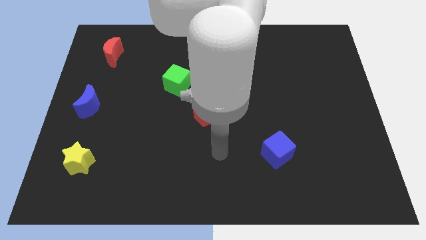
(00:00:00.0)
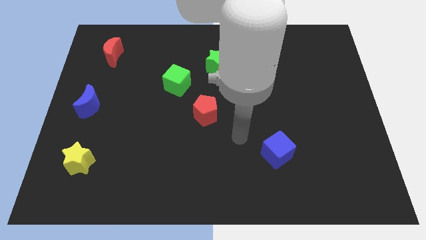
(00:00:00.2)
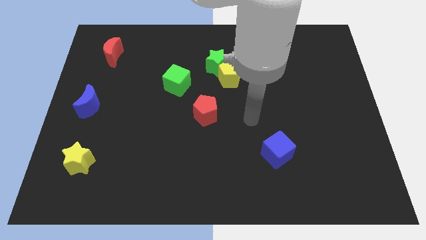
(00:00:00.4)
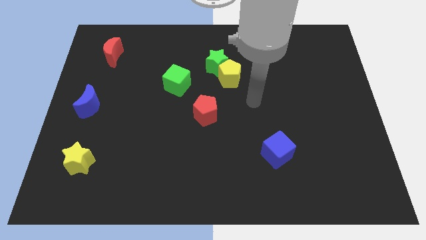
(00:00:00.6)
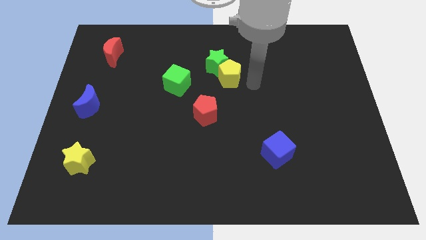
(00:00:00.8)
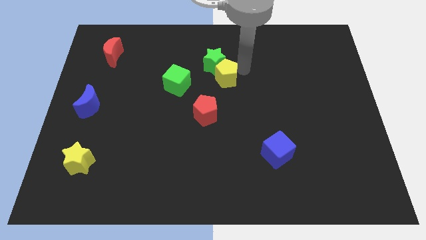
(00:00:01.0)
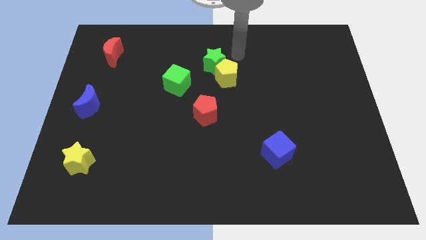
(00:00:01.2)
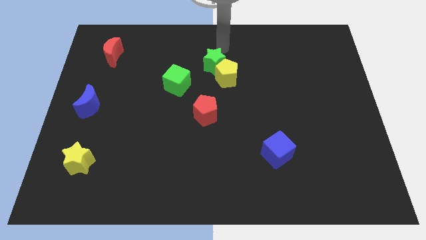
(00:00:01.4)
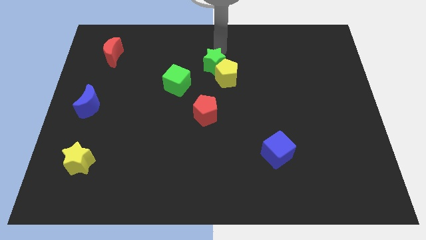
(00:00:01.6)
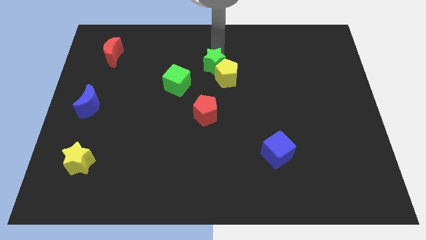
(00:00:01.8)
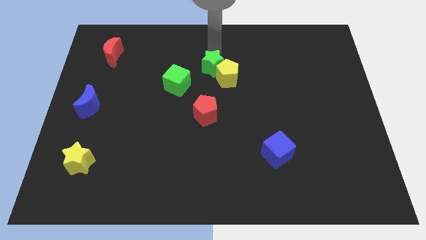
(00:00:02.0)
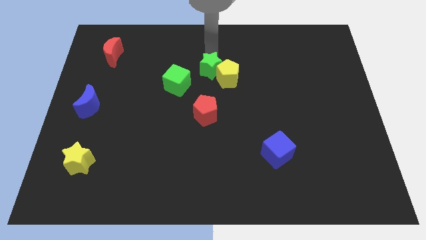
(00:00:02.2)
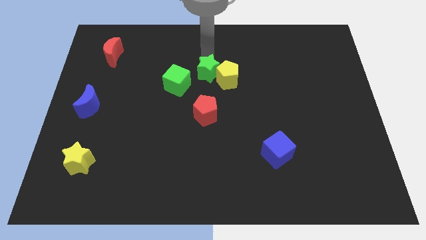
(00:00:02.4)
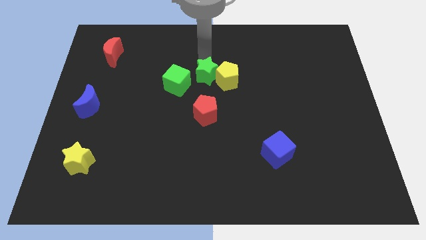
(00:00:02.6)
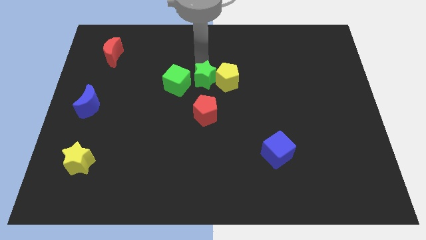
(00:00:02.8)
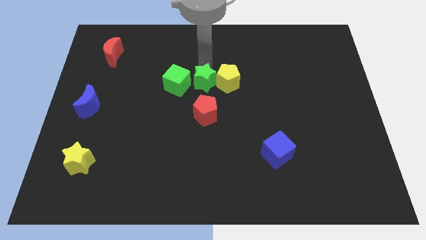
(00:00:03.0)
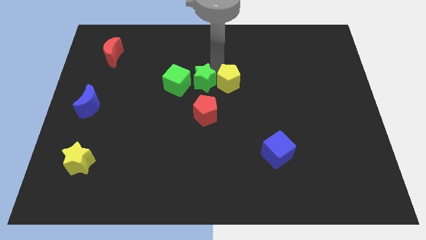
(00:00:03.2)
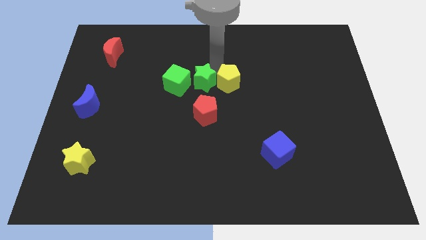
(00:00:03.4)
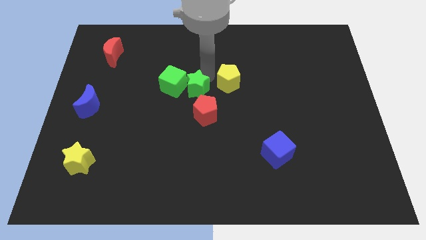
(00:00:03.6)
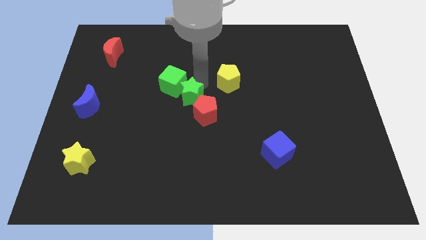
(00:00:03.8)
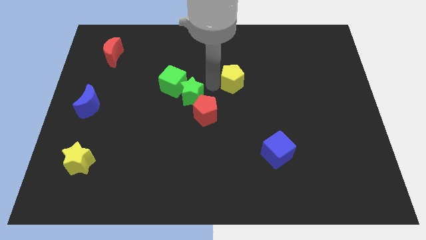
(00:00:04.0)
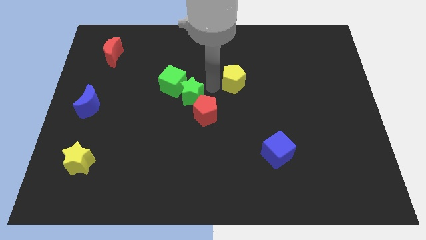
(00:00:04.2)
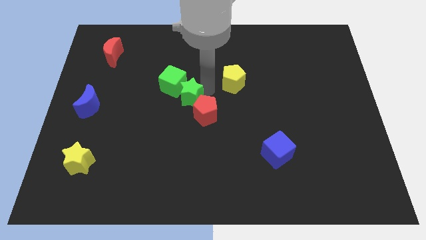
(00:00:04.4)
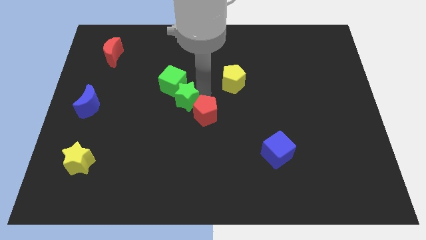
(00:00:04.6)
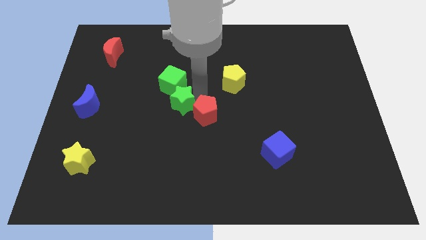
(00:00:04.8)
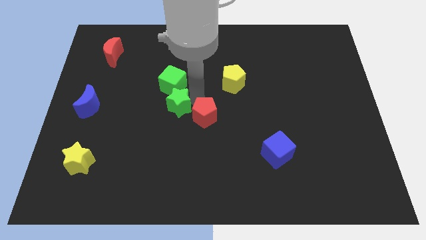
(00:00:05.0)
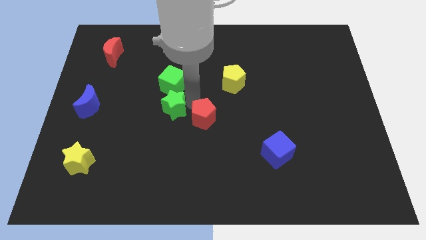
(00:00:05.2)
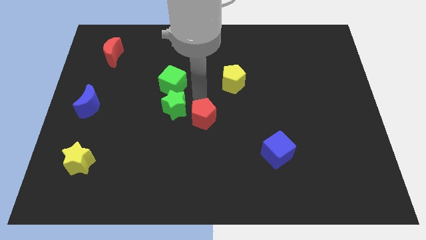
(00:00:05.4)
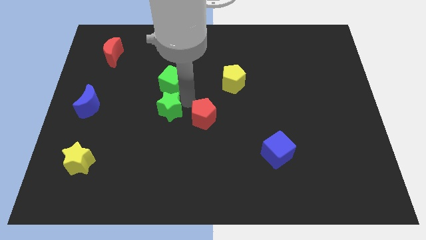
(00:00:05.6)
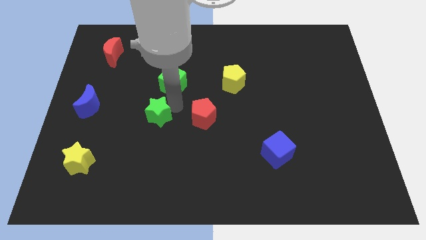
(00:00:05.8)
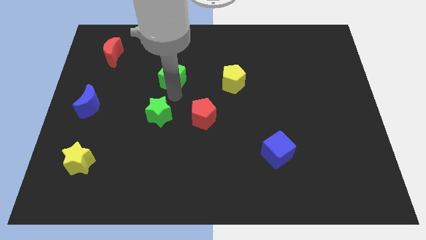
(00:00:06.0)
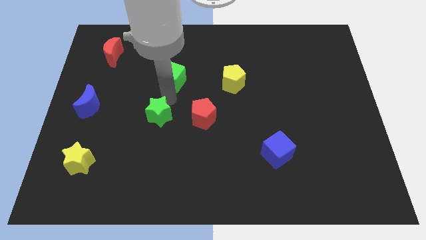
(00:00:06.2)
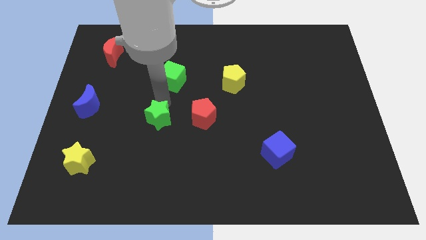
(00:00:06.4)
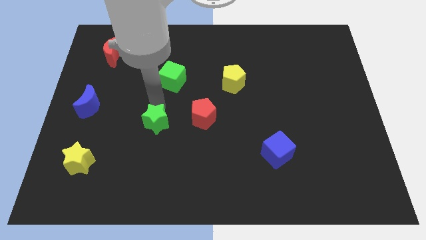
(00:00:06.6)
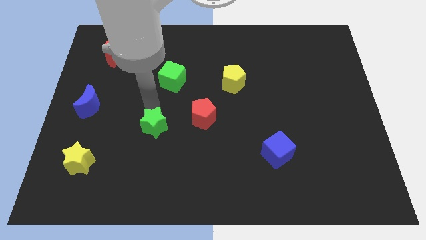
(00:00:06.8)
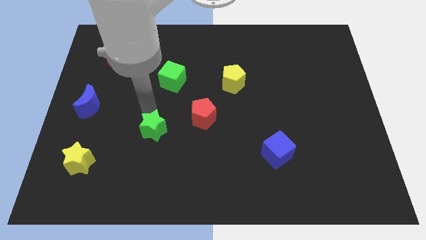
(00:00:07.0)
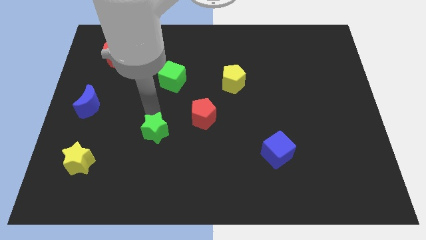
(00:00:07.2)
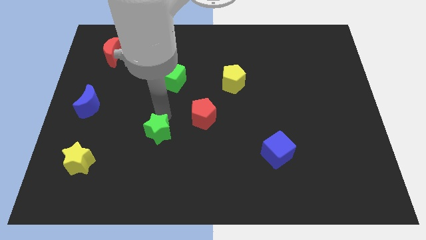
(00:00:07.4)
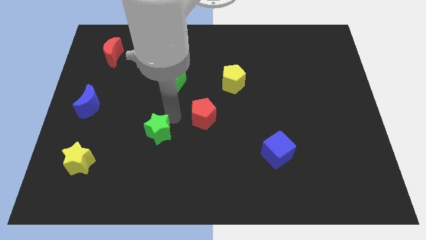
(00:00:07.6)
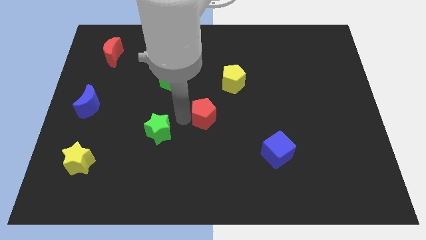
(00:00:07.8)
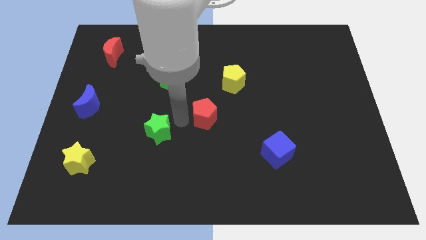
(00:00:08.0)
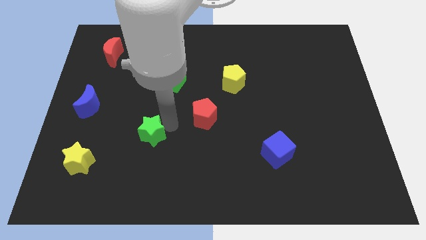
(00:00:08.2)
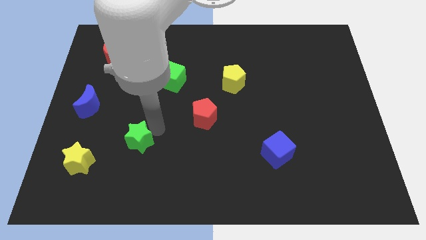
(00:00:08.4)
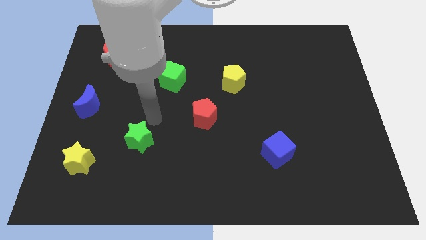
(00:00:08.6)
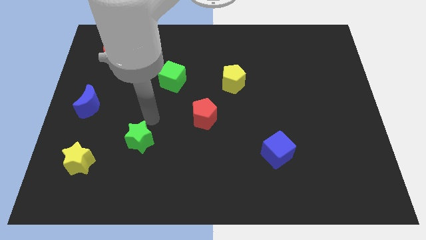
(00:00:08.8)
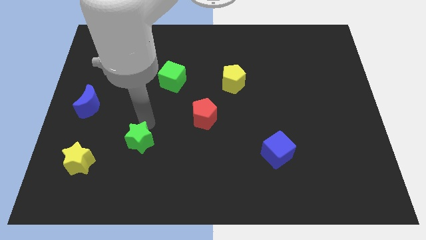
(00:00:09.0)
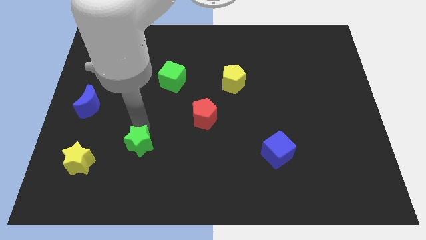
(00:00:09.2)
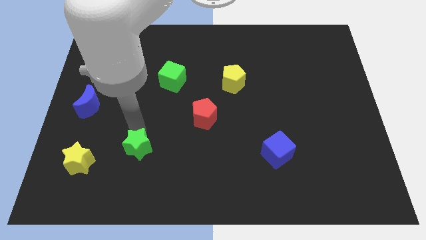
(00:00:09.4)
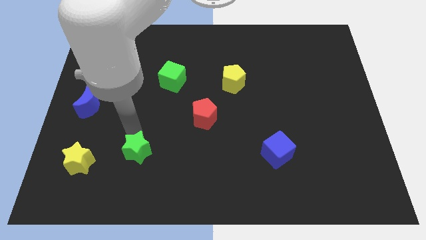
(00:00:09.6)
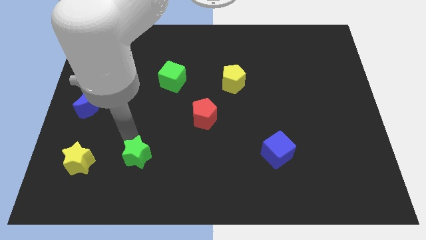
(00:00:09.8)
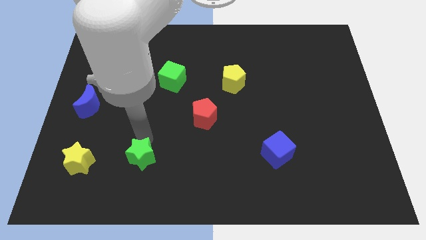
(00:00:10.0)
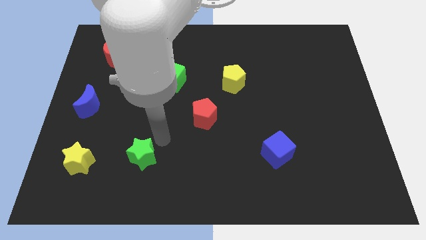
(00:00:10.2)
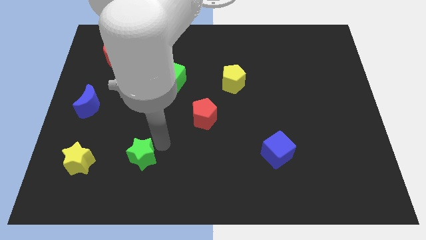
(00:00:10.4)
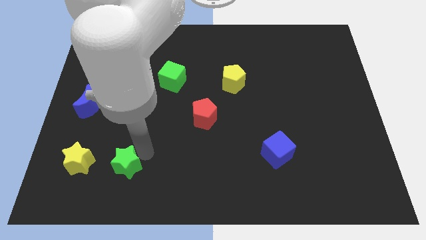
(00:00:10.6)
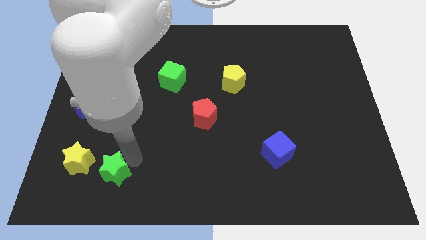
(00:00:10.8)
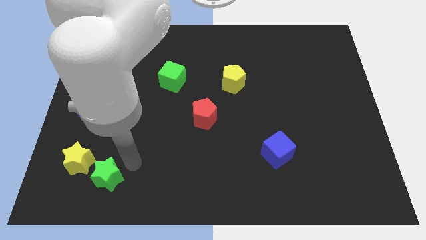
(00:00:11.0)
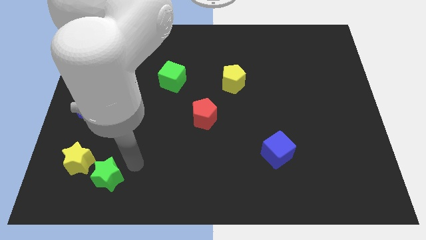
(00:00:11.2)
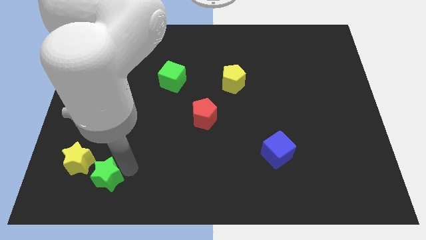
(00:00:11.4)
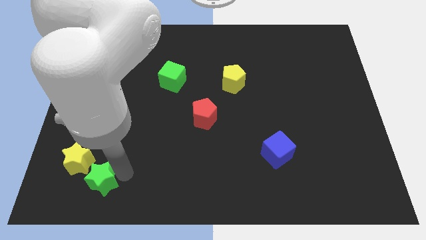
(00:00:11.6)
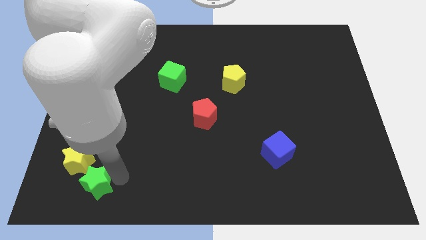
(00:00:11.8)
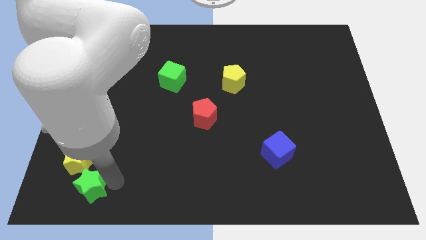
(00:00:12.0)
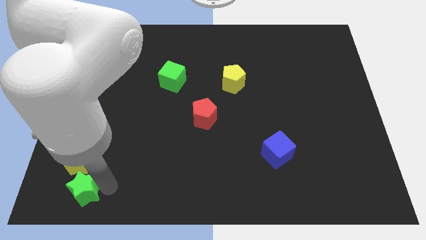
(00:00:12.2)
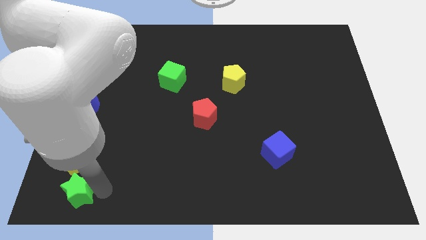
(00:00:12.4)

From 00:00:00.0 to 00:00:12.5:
move the green star to the bottom left corner
